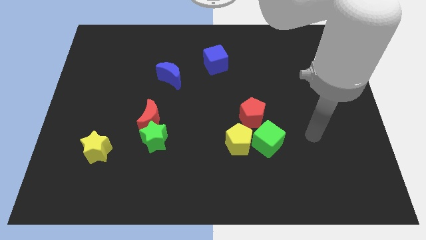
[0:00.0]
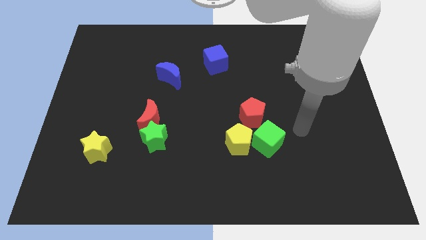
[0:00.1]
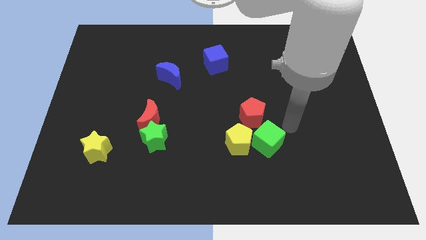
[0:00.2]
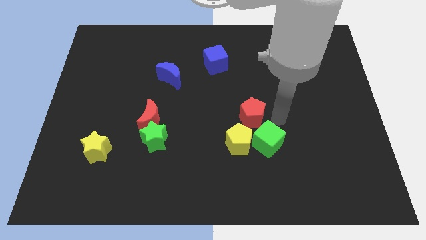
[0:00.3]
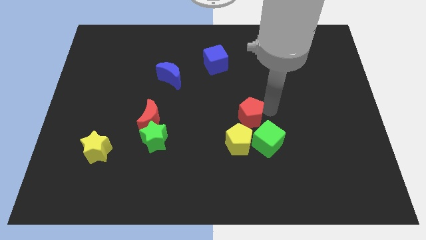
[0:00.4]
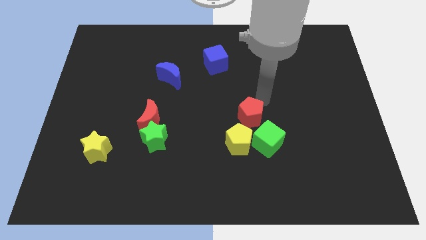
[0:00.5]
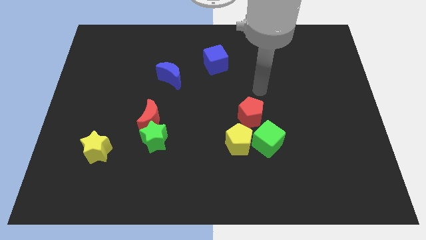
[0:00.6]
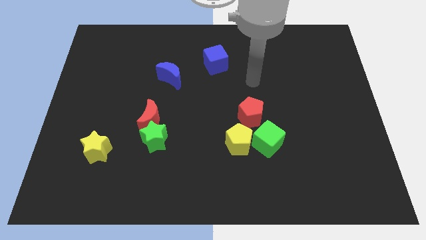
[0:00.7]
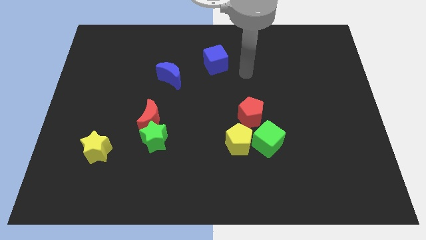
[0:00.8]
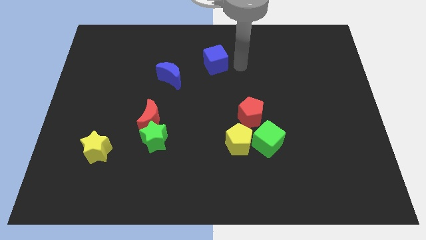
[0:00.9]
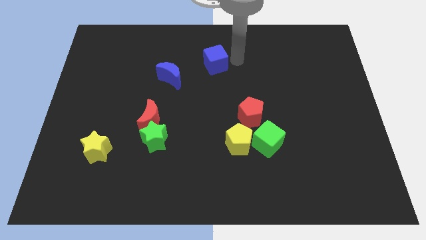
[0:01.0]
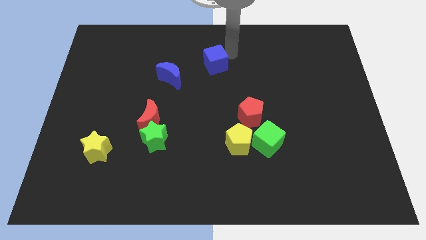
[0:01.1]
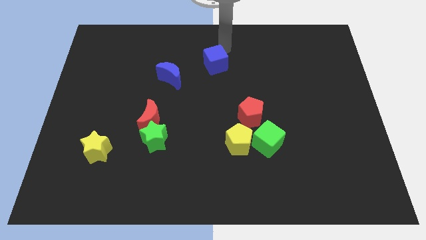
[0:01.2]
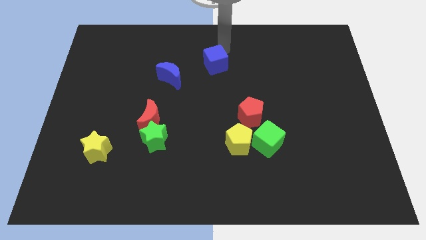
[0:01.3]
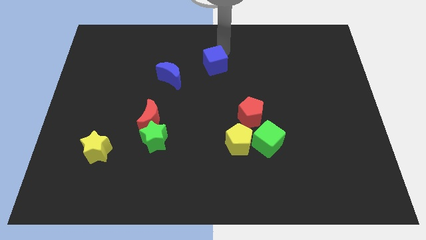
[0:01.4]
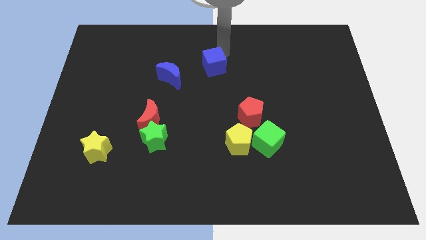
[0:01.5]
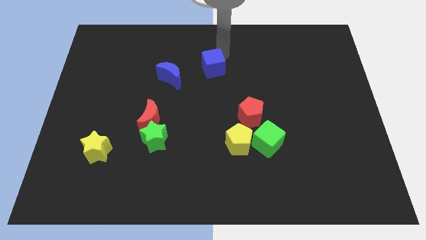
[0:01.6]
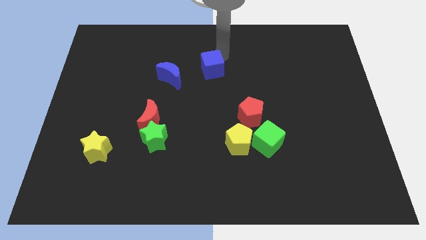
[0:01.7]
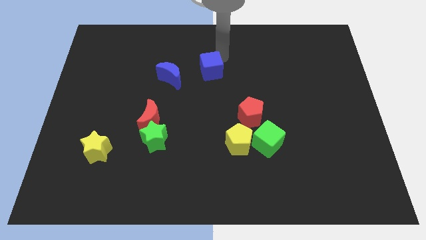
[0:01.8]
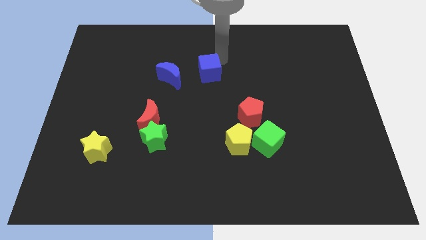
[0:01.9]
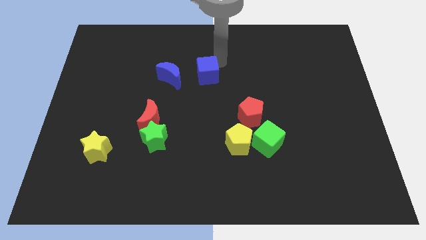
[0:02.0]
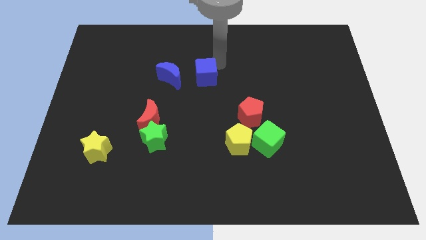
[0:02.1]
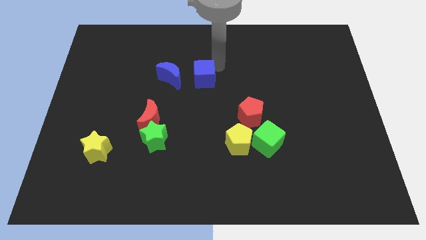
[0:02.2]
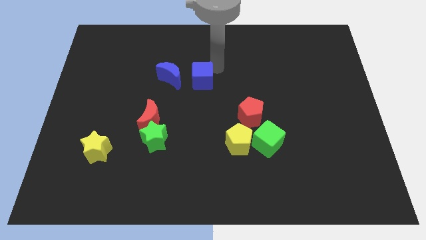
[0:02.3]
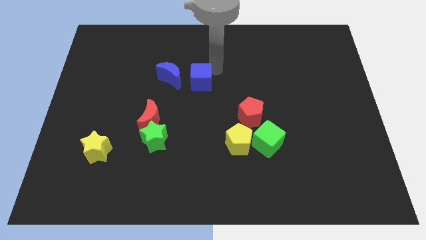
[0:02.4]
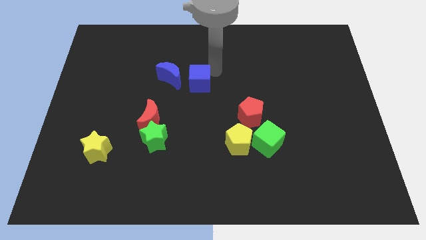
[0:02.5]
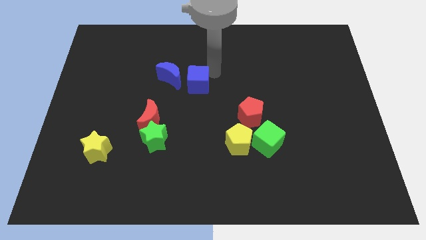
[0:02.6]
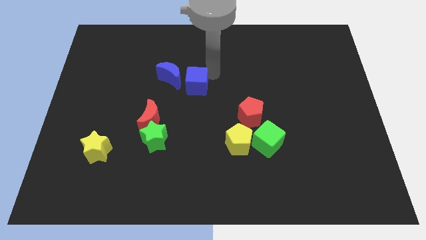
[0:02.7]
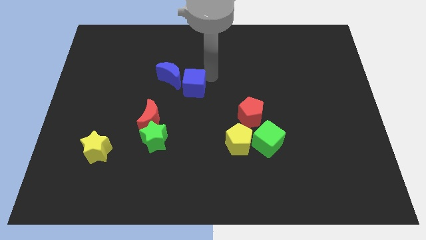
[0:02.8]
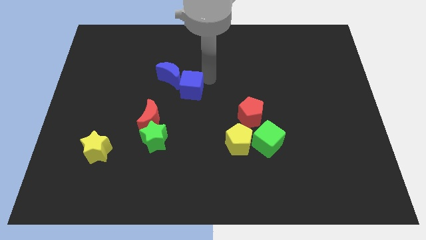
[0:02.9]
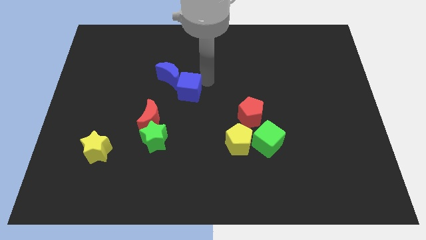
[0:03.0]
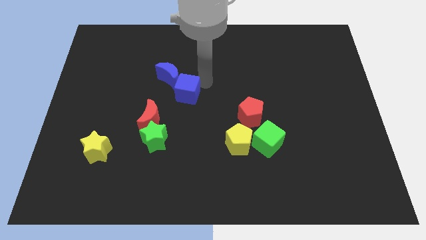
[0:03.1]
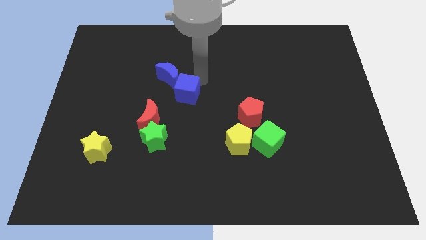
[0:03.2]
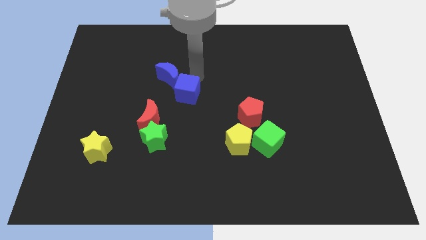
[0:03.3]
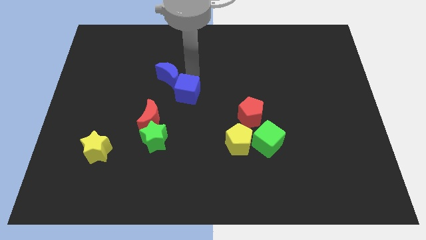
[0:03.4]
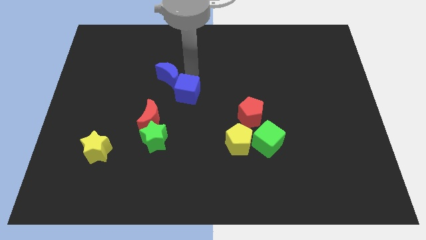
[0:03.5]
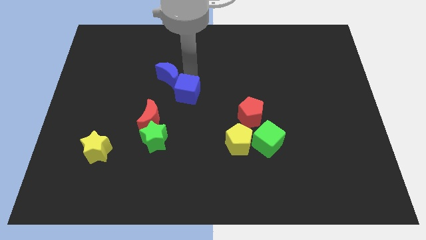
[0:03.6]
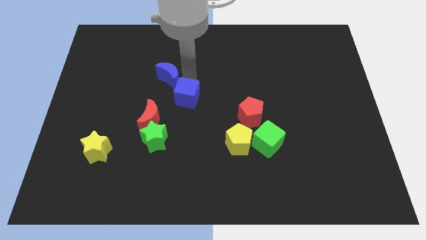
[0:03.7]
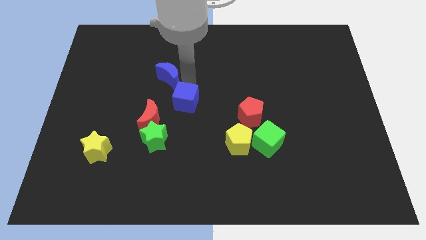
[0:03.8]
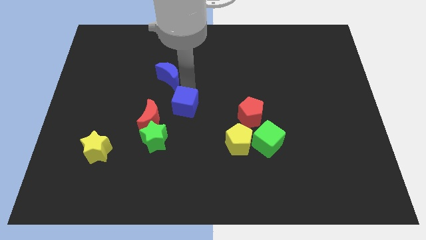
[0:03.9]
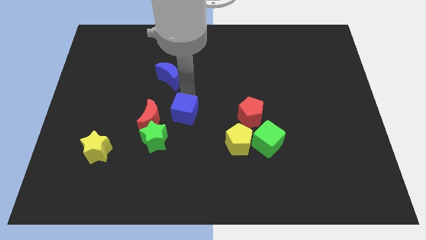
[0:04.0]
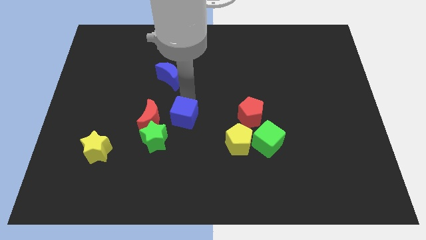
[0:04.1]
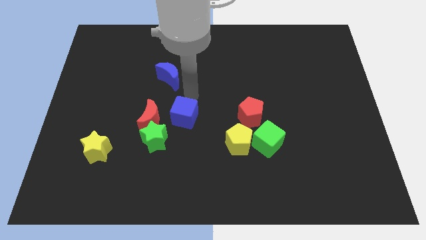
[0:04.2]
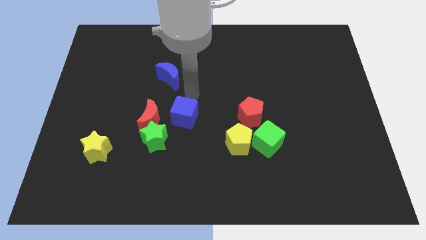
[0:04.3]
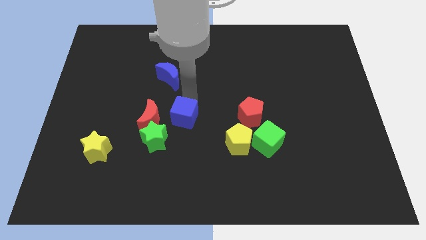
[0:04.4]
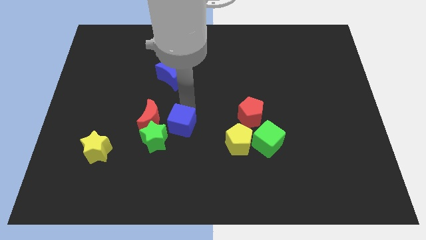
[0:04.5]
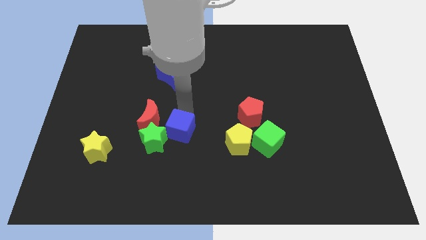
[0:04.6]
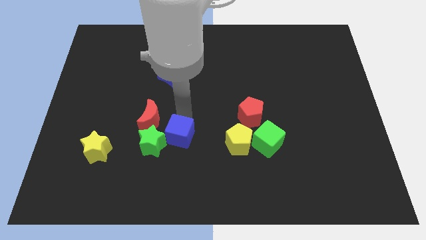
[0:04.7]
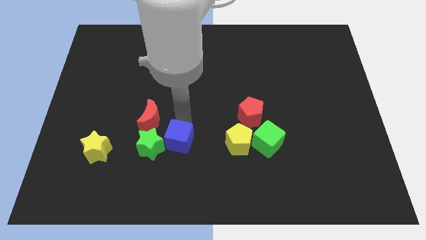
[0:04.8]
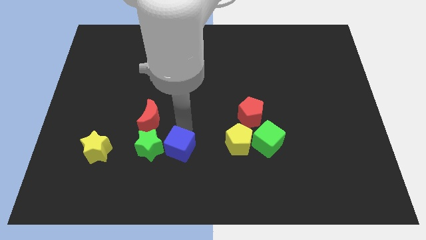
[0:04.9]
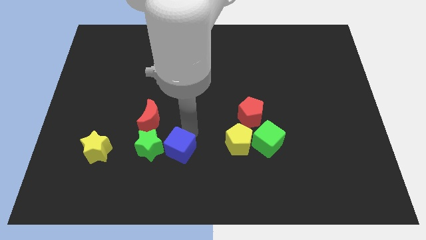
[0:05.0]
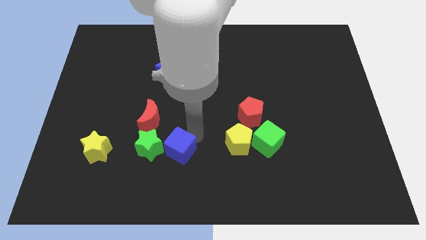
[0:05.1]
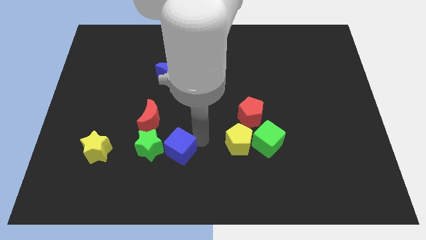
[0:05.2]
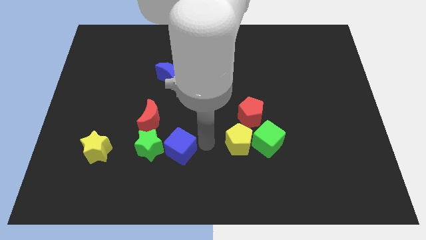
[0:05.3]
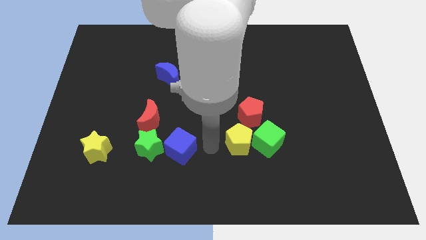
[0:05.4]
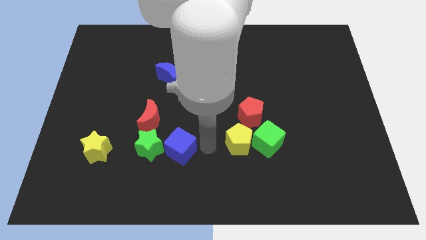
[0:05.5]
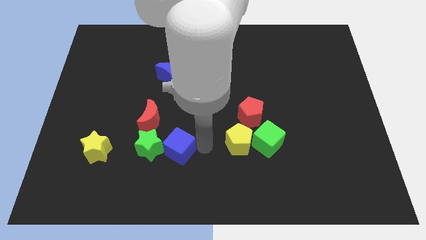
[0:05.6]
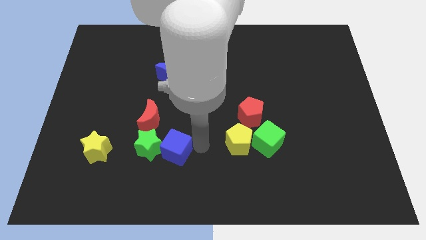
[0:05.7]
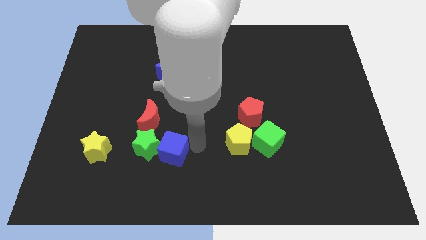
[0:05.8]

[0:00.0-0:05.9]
put the blue cube to the right of the yellow star

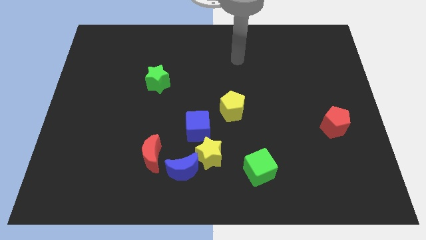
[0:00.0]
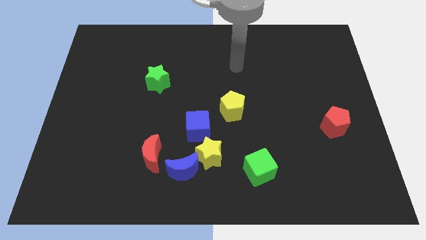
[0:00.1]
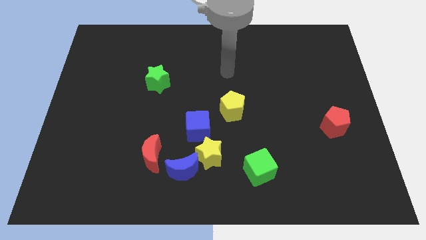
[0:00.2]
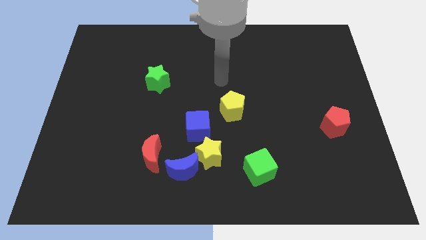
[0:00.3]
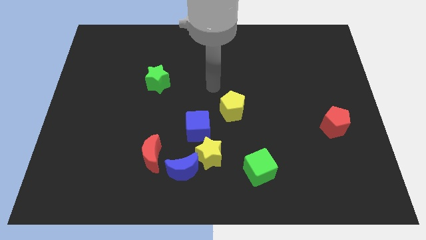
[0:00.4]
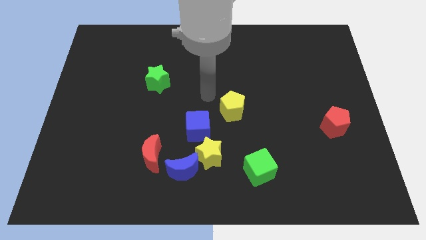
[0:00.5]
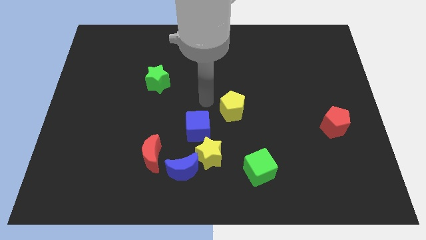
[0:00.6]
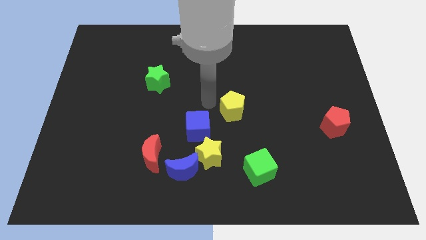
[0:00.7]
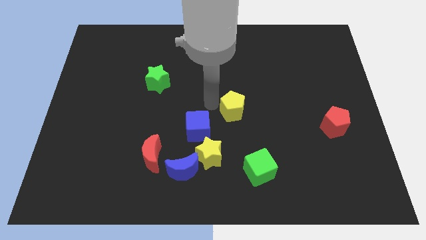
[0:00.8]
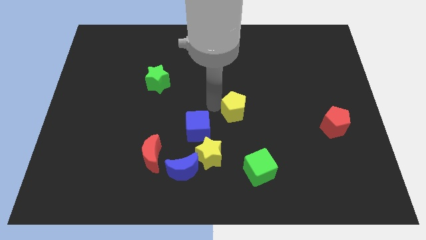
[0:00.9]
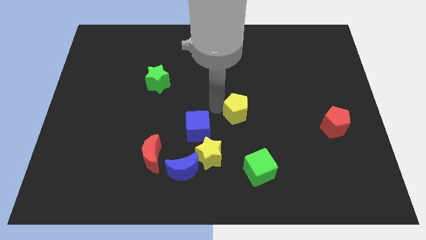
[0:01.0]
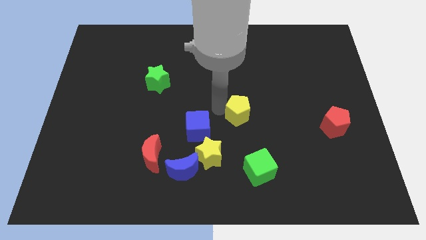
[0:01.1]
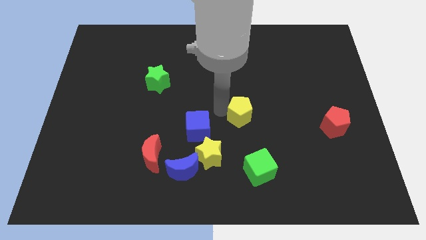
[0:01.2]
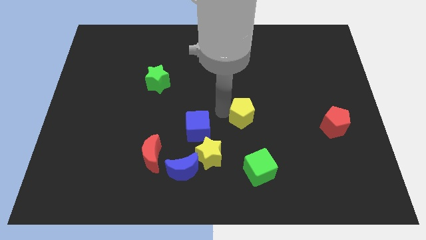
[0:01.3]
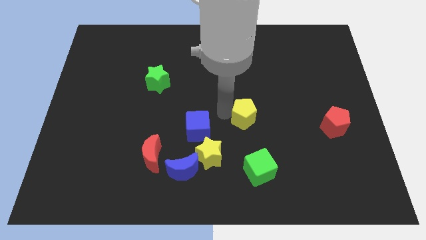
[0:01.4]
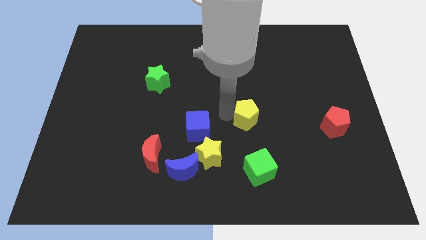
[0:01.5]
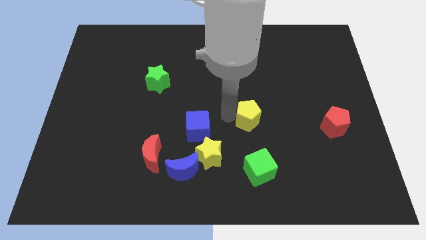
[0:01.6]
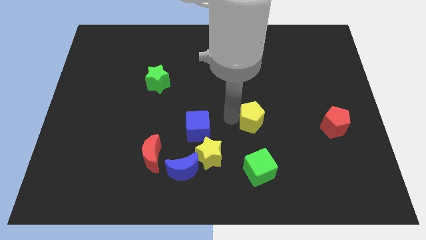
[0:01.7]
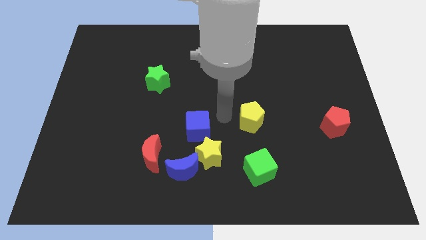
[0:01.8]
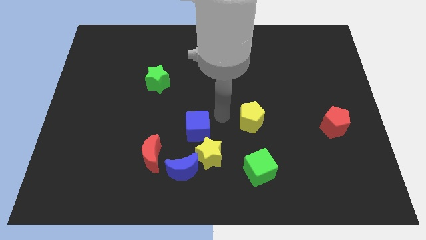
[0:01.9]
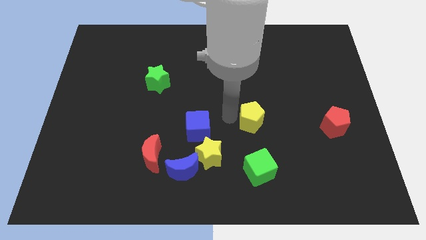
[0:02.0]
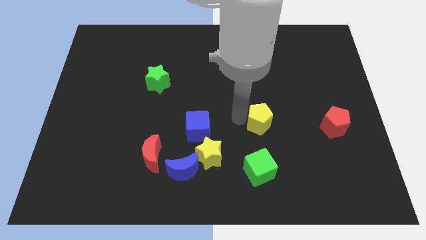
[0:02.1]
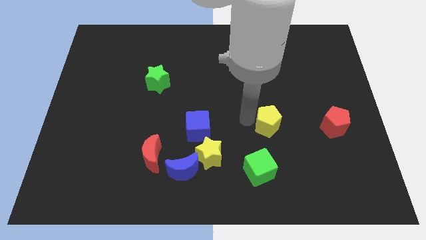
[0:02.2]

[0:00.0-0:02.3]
put the yellow pentagon to the left of the red pentagon
